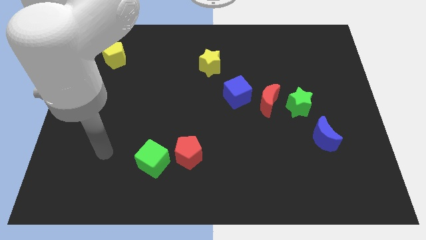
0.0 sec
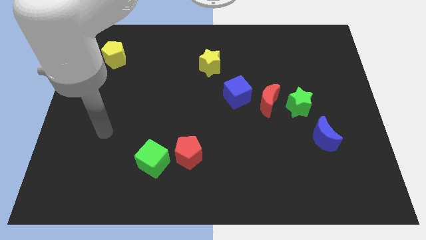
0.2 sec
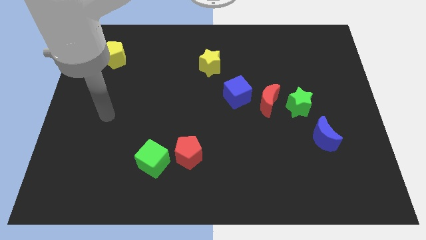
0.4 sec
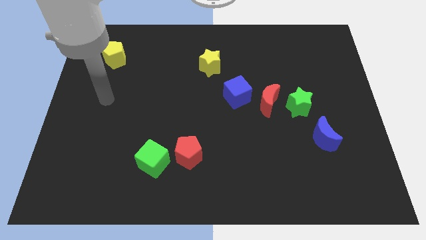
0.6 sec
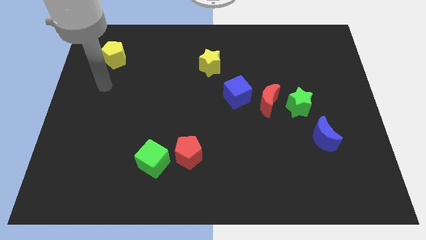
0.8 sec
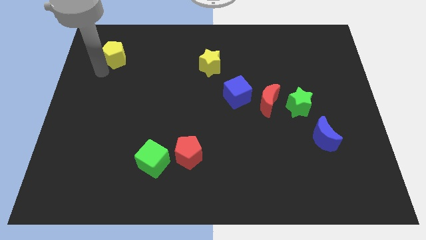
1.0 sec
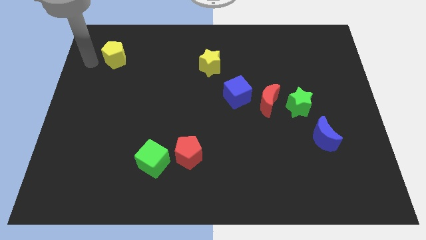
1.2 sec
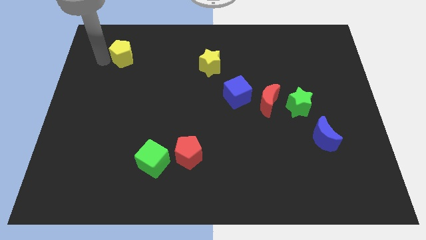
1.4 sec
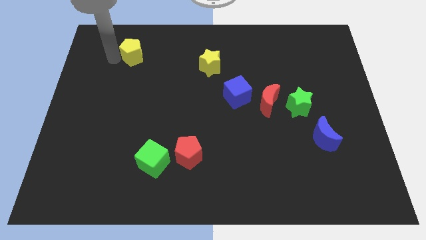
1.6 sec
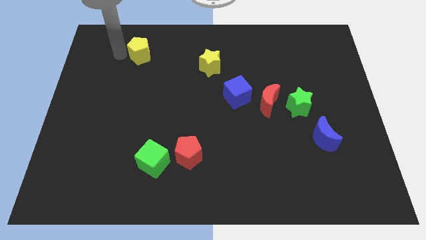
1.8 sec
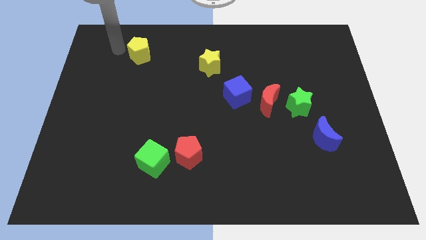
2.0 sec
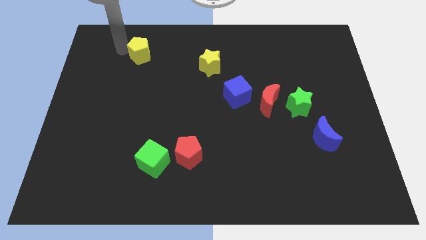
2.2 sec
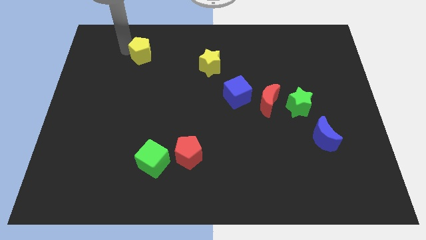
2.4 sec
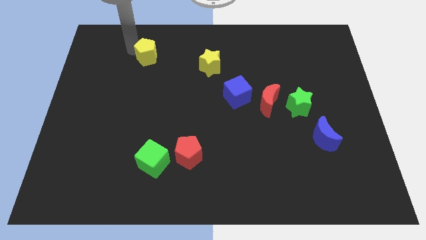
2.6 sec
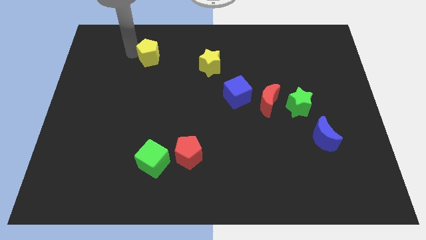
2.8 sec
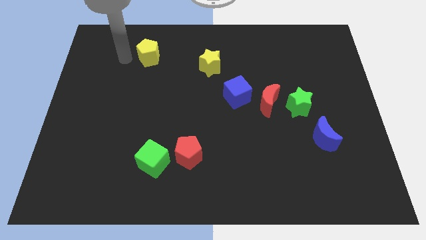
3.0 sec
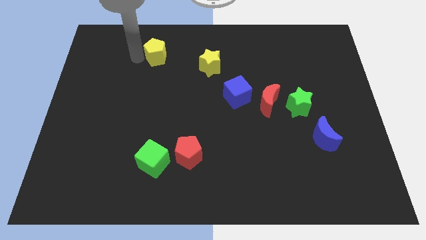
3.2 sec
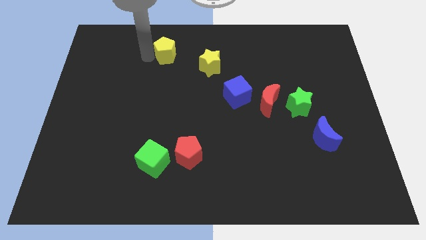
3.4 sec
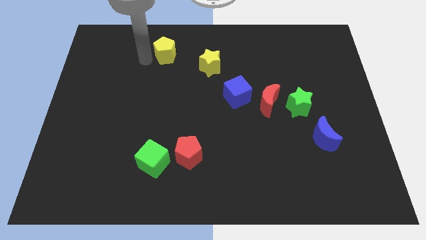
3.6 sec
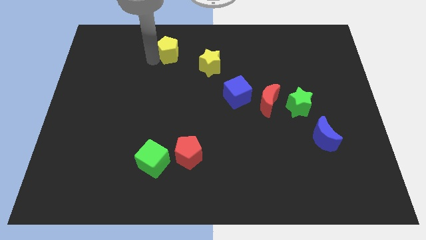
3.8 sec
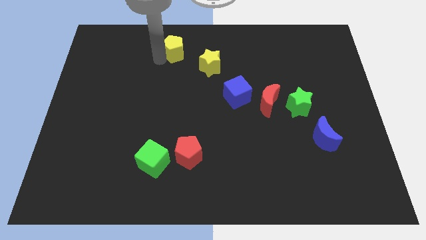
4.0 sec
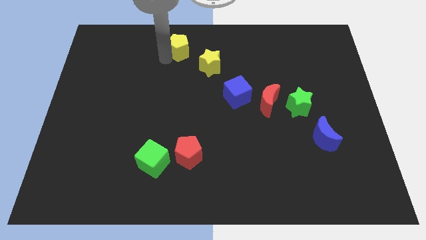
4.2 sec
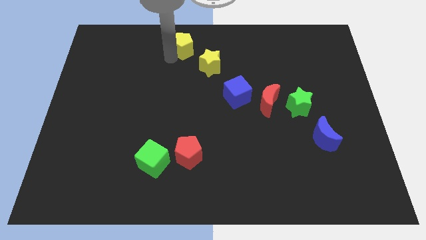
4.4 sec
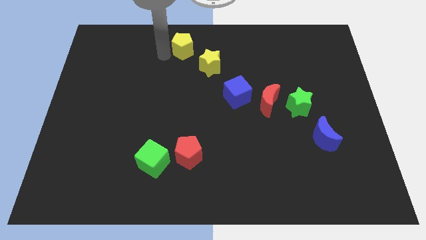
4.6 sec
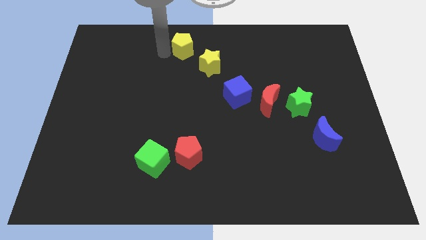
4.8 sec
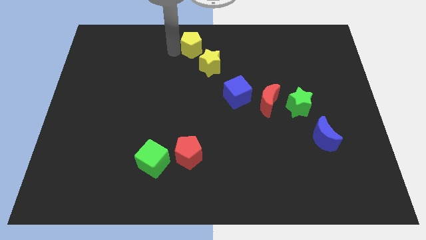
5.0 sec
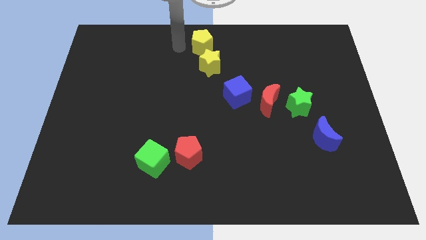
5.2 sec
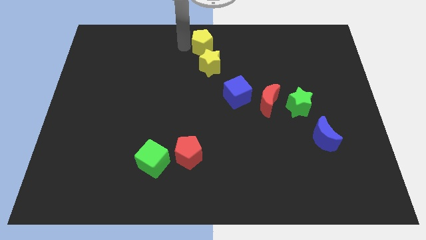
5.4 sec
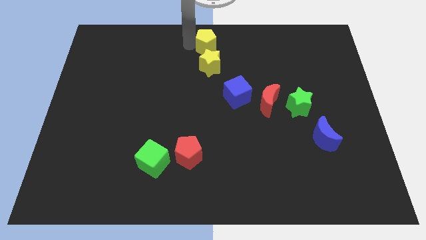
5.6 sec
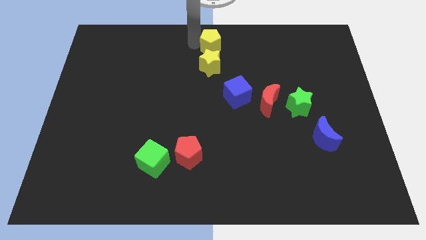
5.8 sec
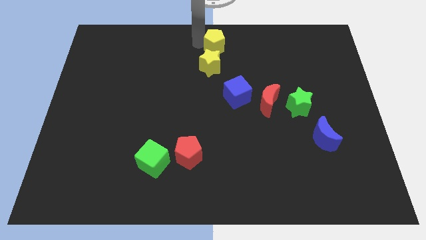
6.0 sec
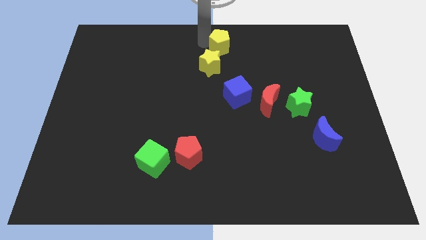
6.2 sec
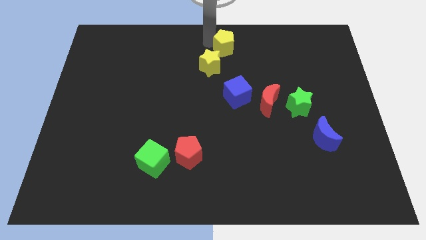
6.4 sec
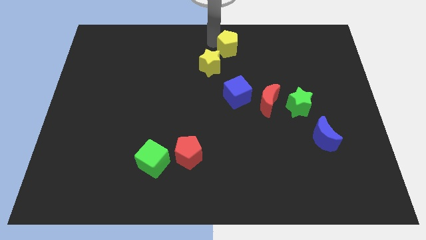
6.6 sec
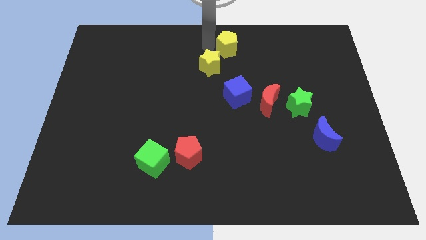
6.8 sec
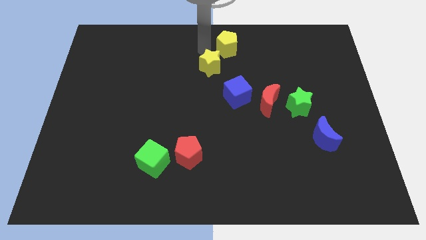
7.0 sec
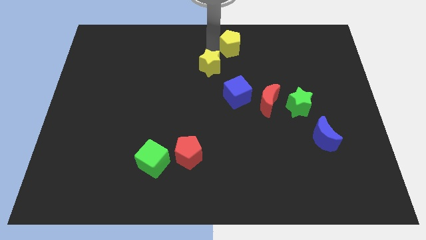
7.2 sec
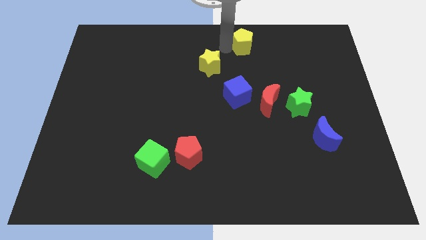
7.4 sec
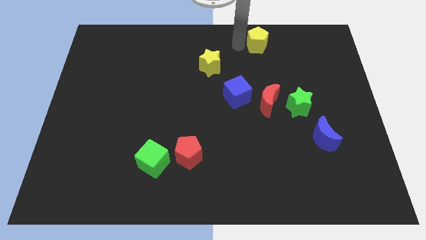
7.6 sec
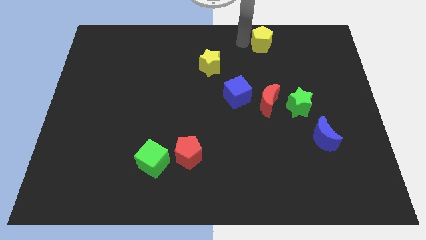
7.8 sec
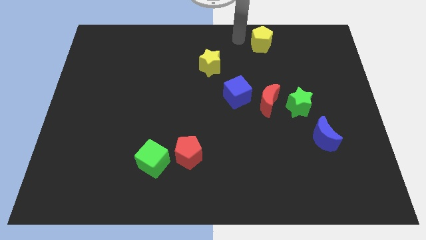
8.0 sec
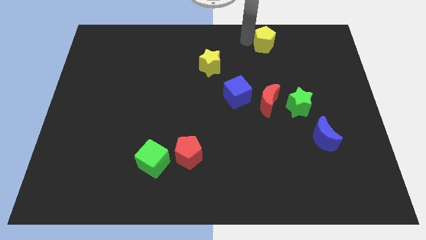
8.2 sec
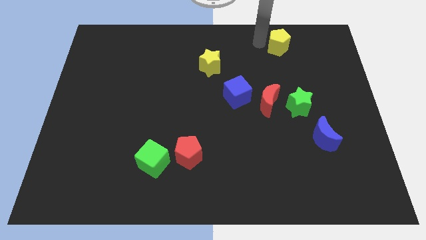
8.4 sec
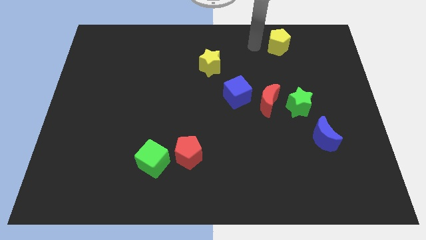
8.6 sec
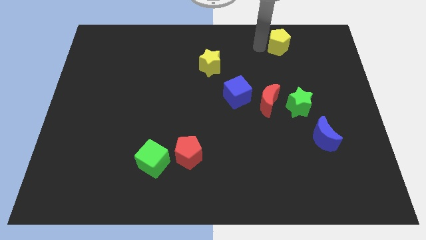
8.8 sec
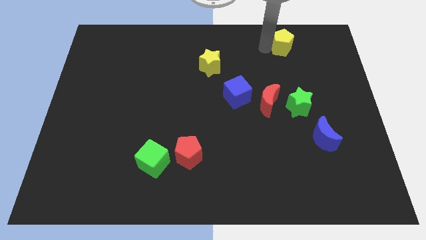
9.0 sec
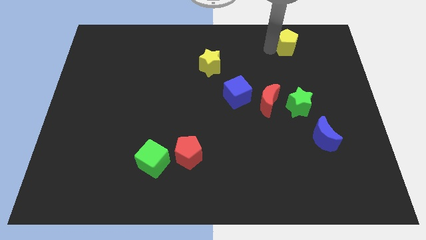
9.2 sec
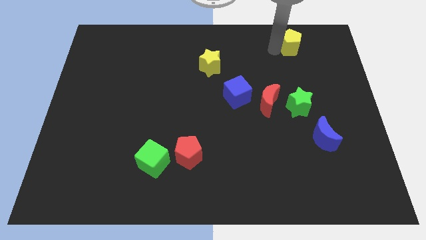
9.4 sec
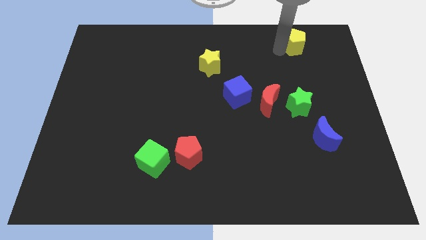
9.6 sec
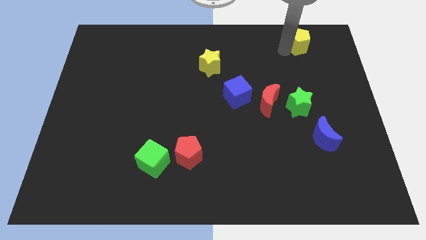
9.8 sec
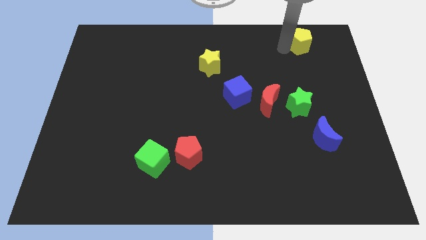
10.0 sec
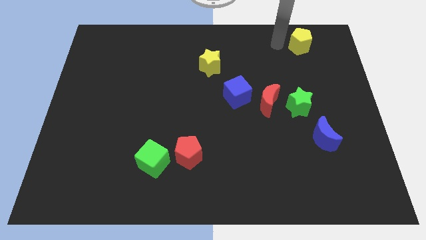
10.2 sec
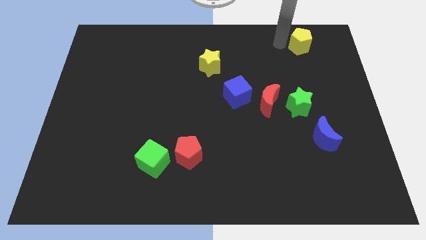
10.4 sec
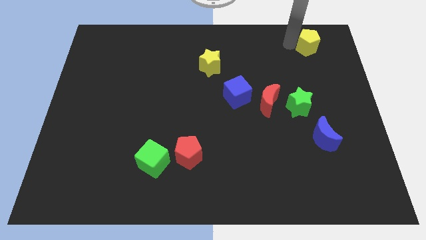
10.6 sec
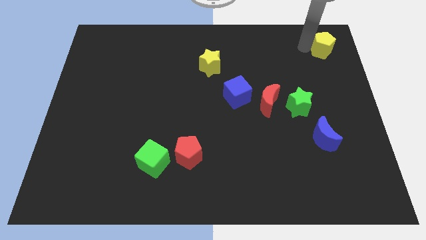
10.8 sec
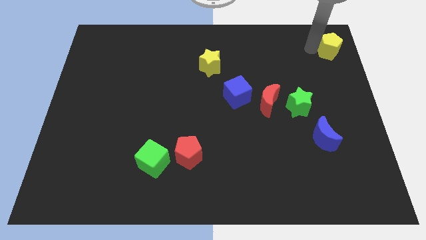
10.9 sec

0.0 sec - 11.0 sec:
push the yellow pentagon to the top right corner
